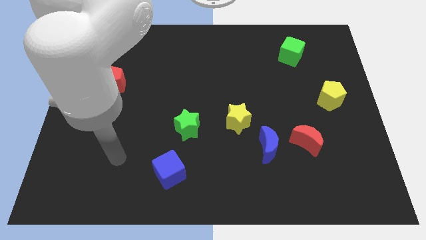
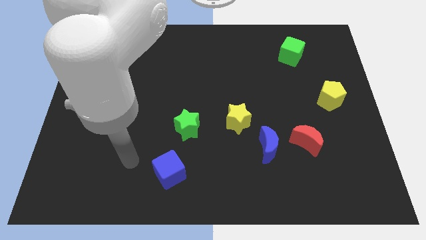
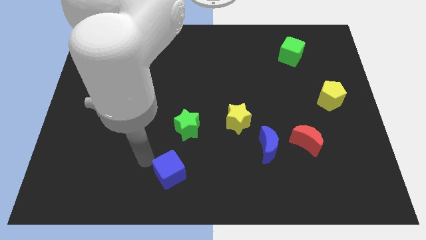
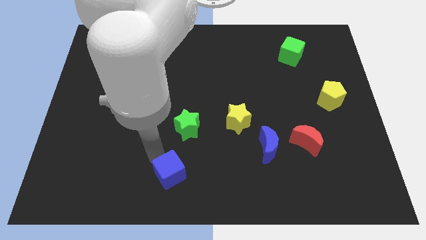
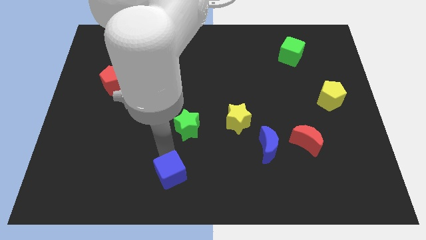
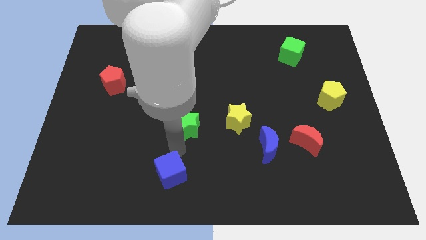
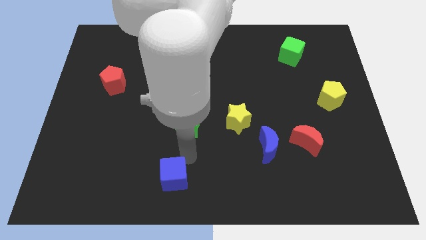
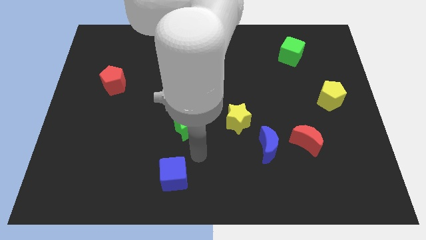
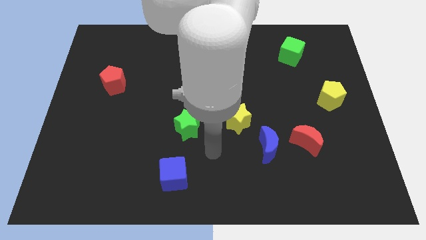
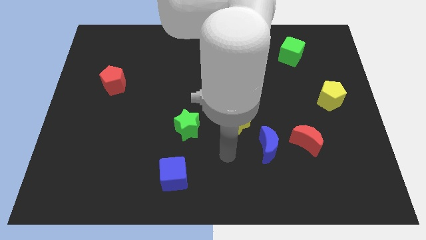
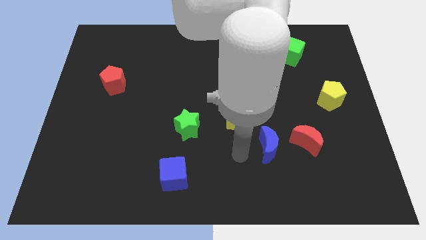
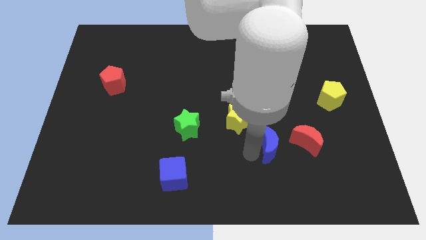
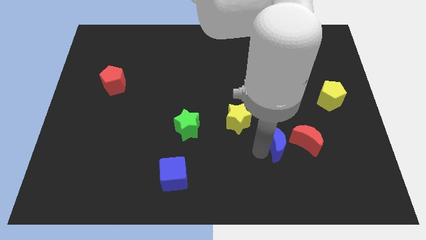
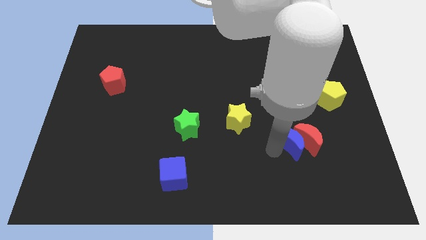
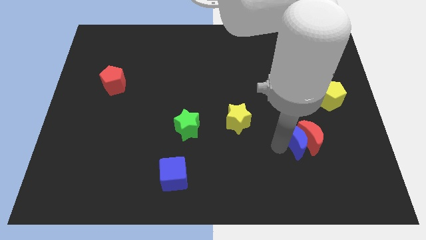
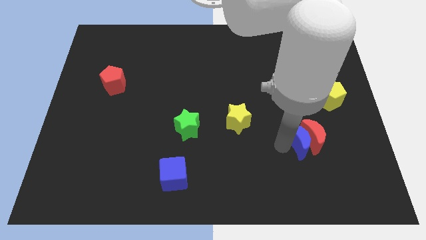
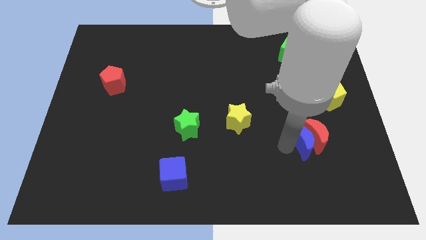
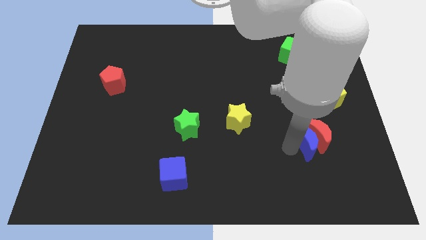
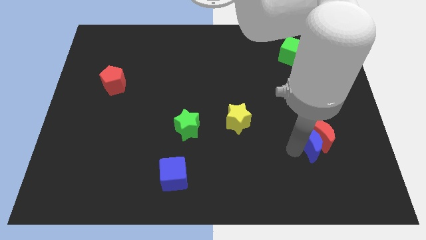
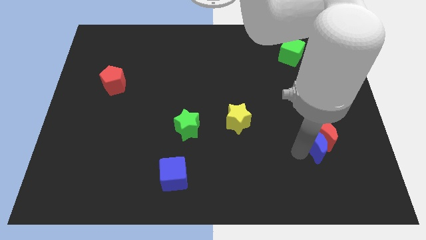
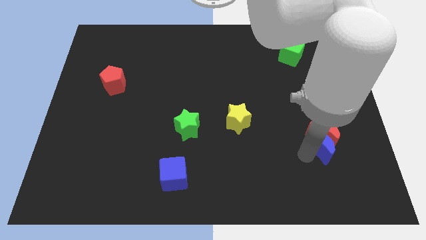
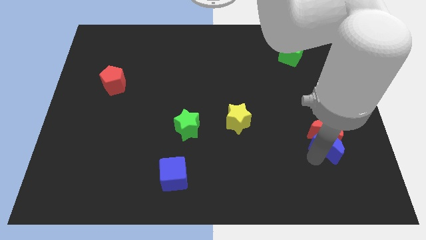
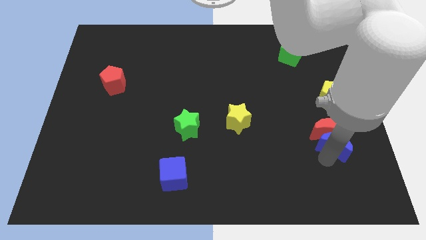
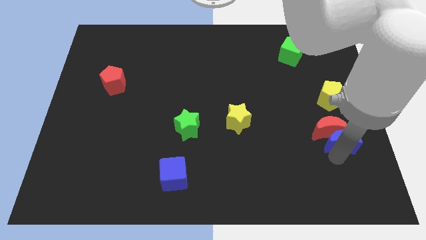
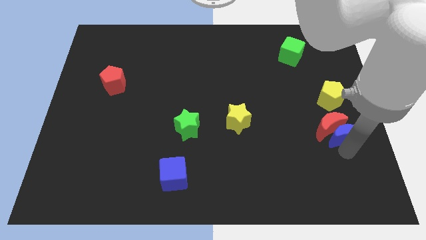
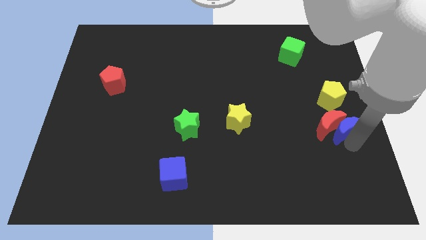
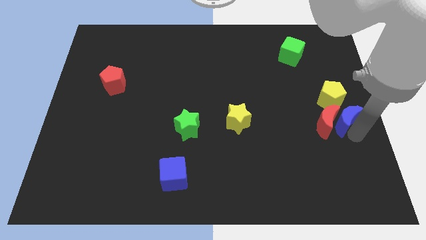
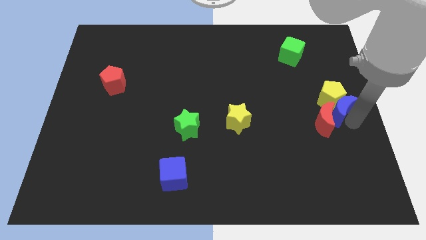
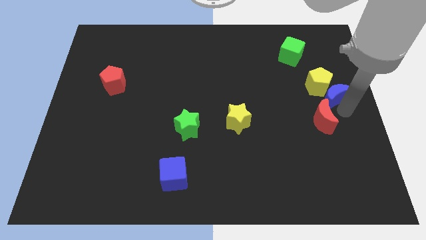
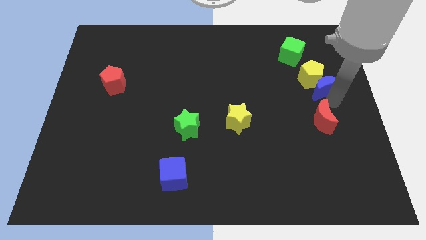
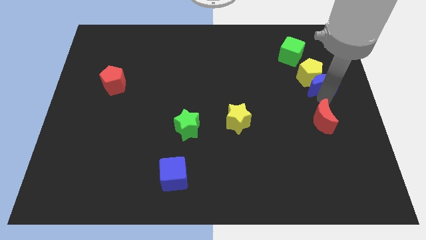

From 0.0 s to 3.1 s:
pull the red moon apart from the blue moon

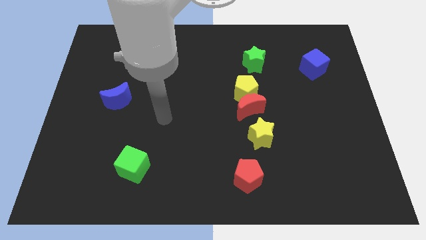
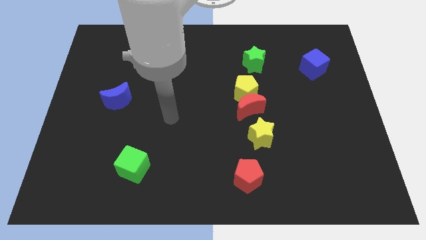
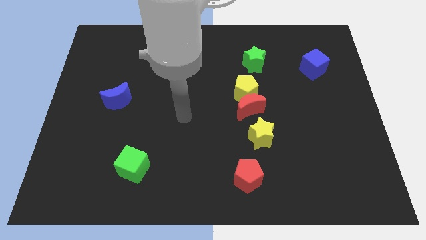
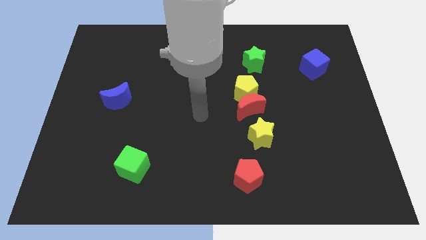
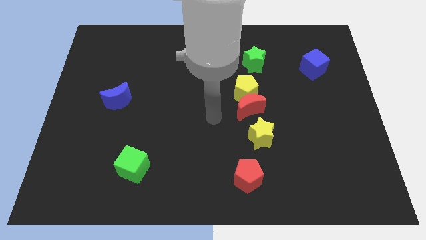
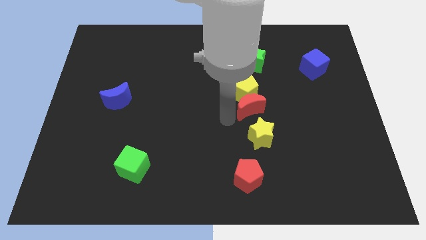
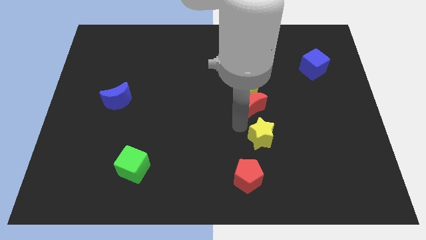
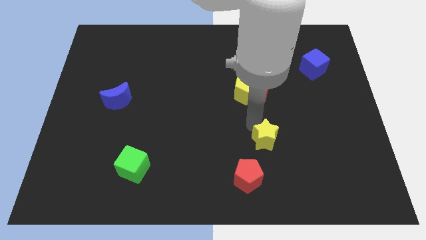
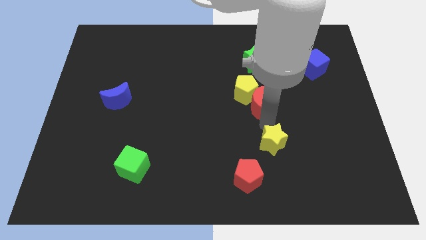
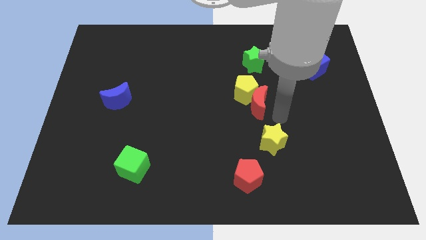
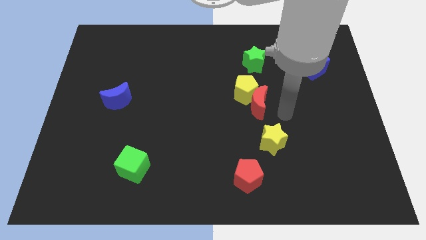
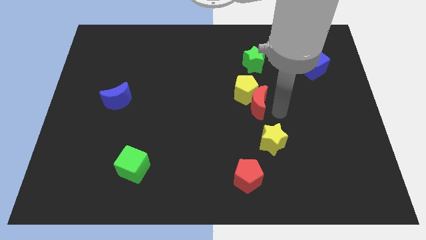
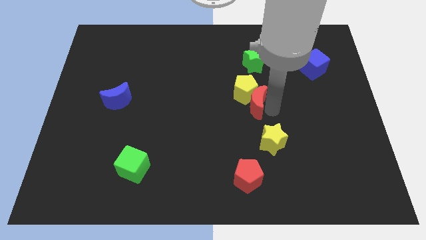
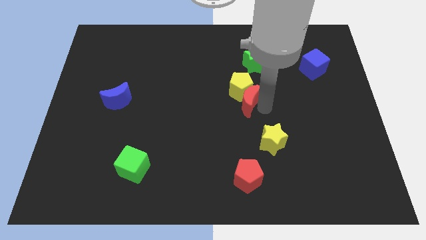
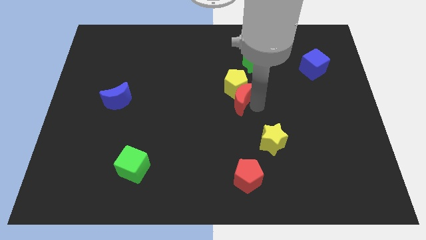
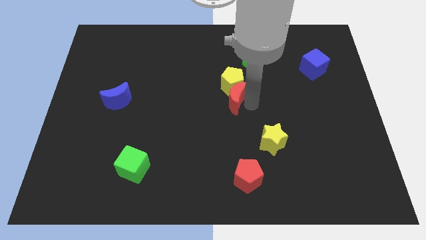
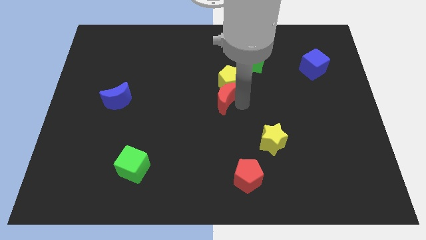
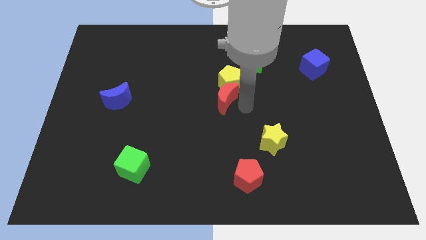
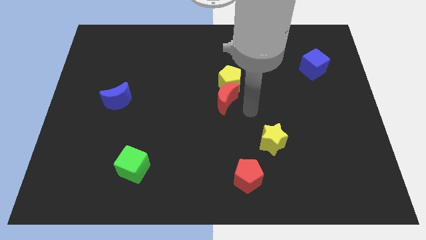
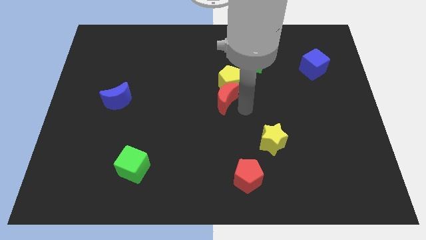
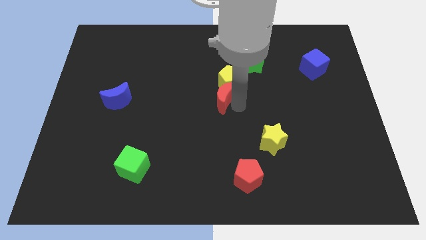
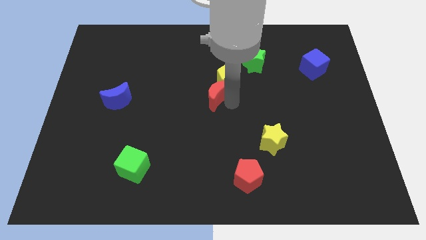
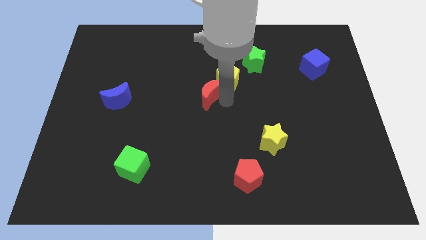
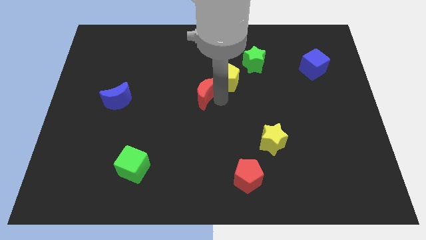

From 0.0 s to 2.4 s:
move the red moon away from the yellow pentagon and yellow star

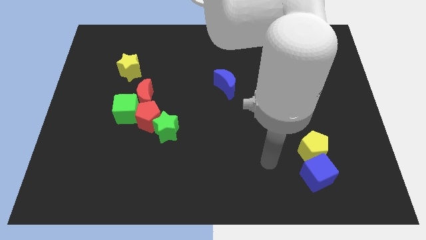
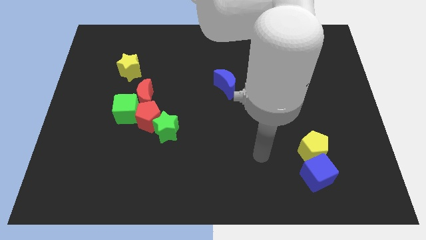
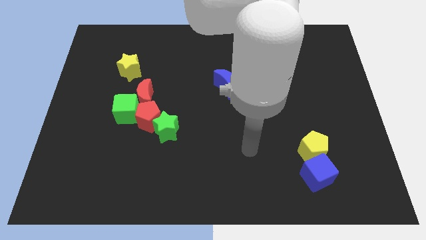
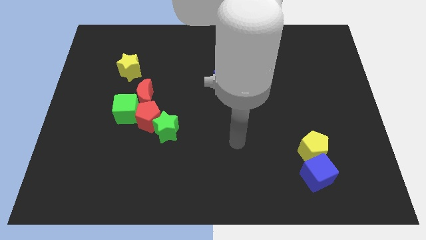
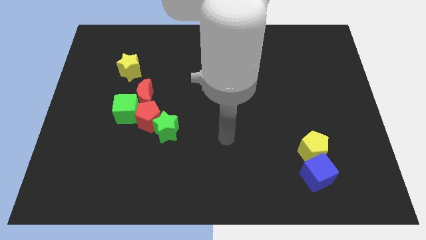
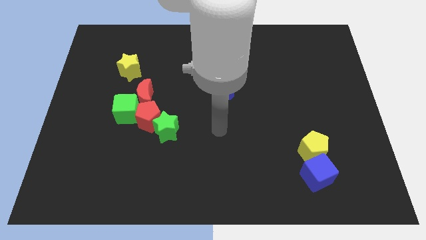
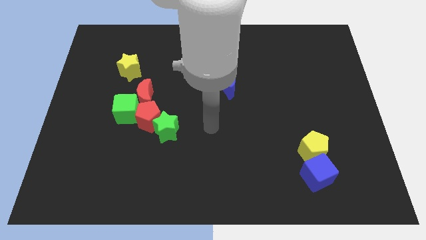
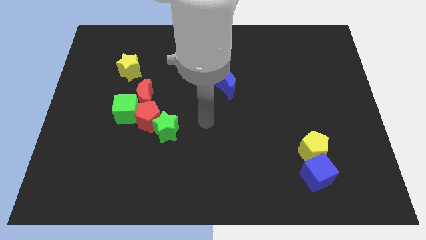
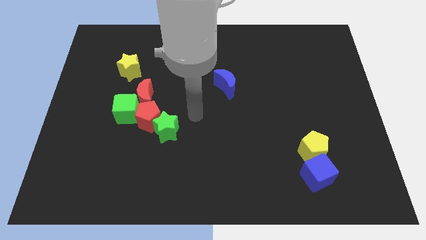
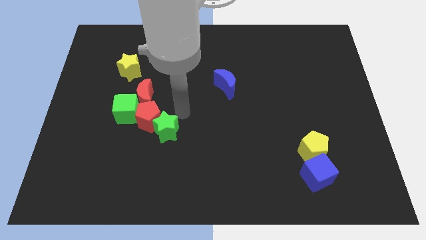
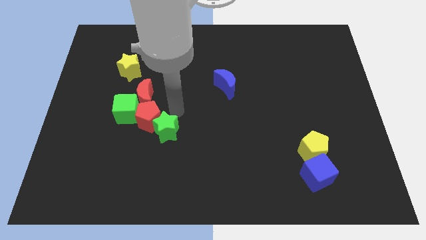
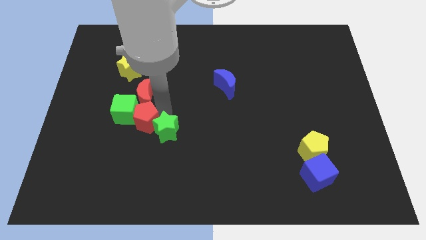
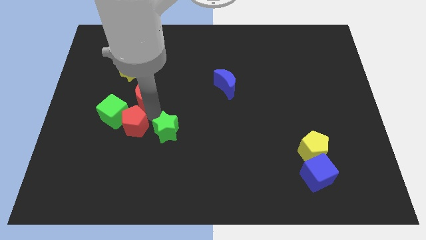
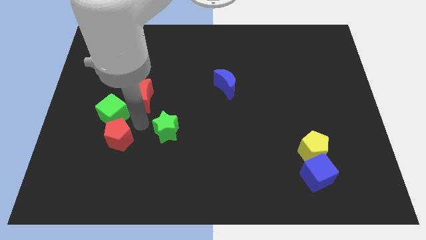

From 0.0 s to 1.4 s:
move the green star away from the red pentagon

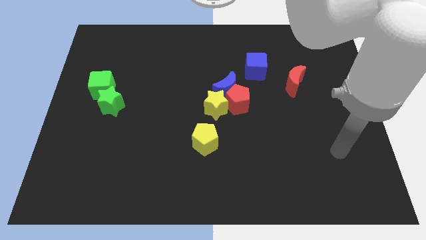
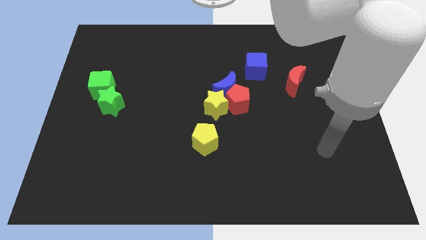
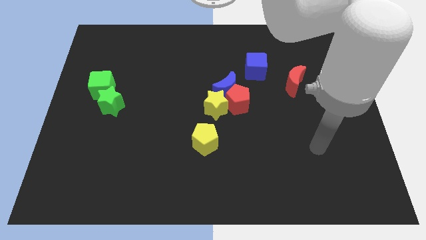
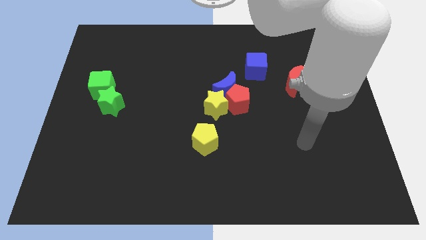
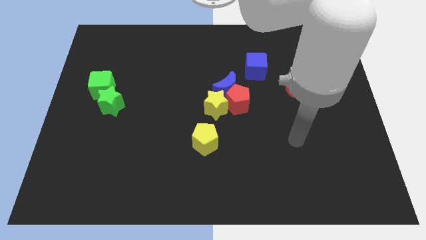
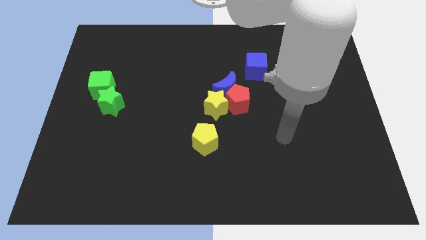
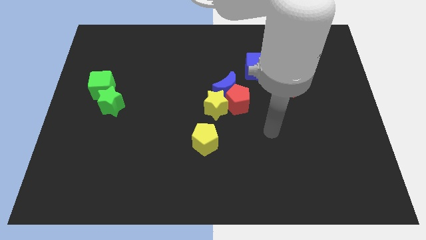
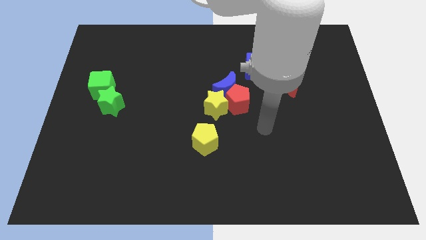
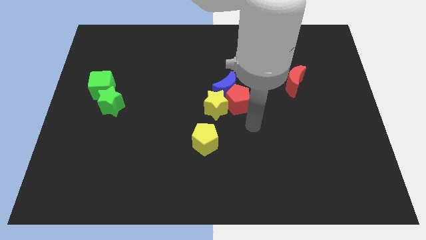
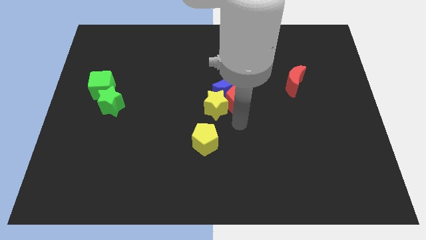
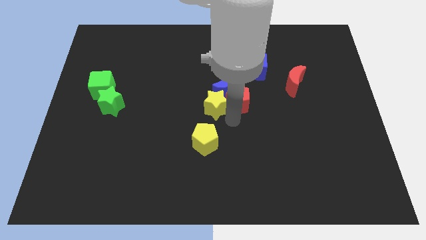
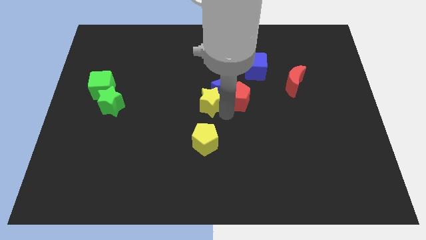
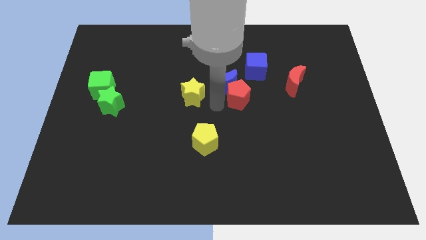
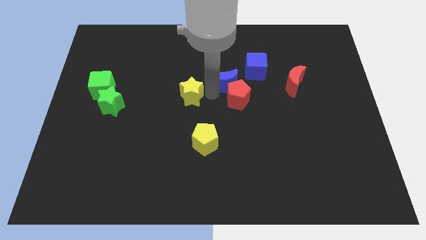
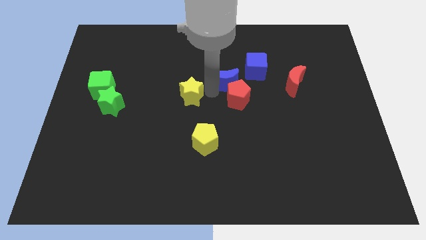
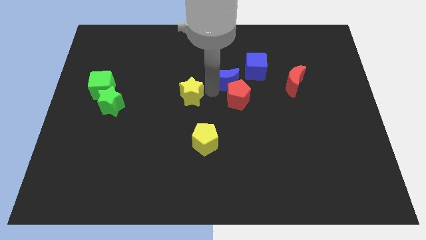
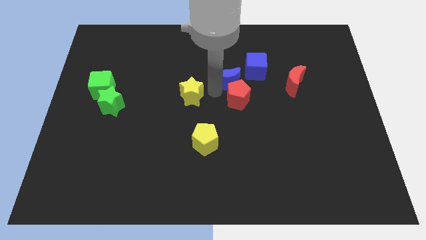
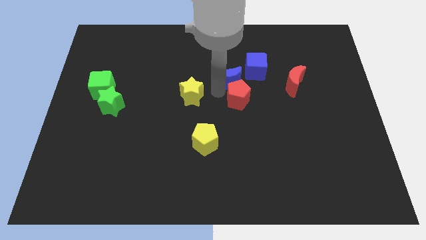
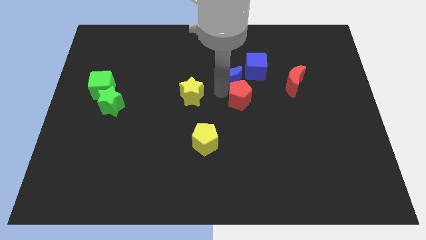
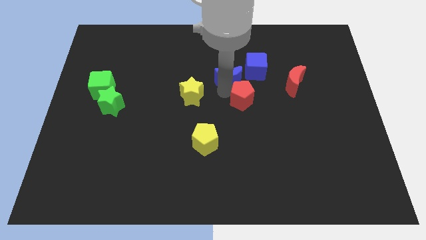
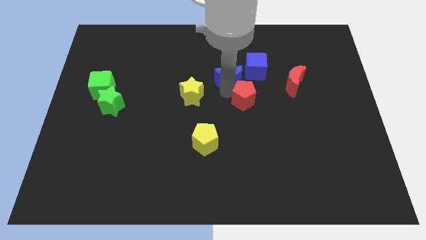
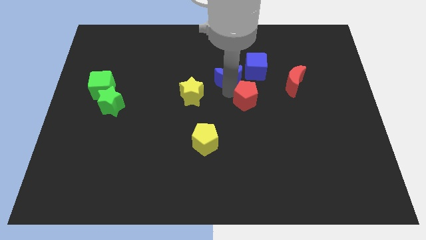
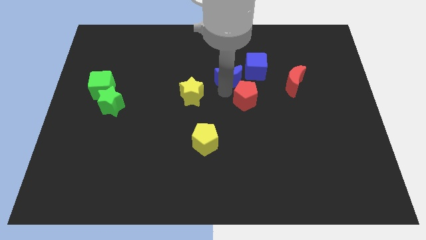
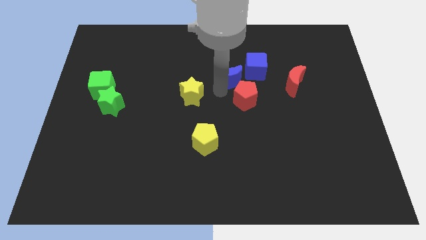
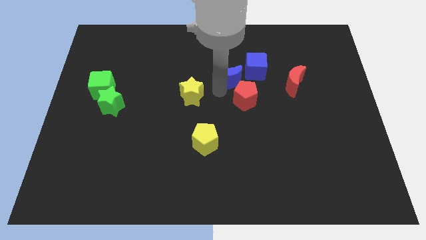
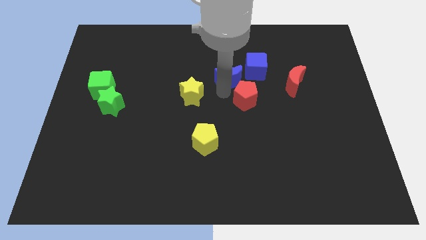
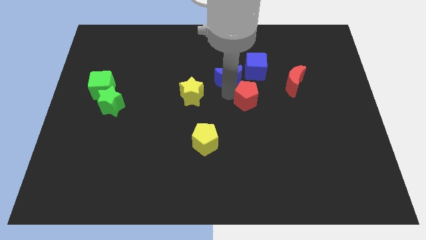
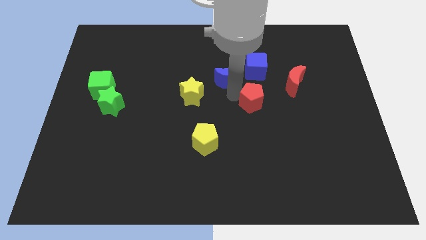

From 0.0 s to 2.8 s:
move the red pentagon away from the blue moon and yellow star
